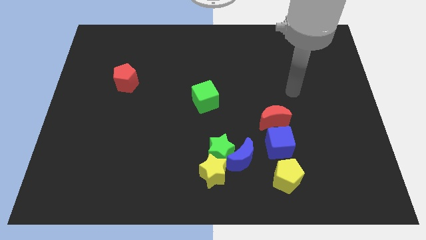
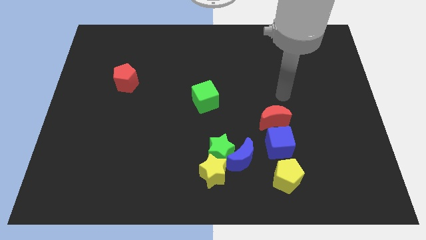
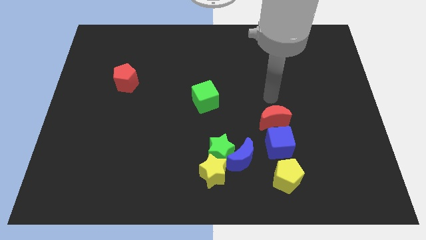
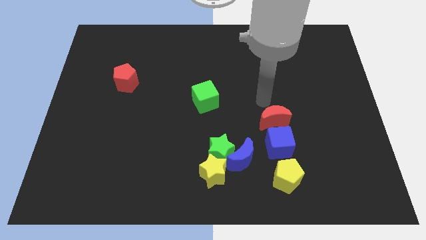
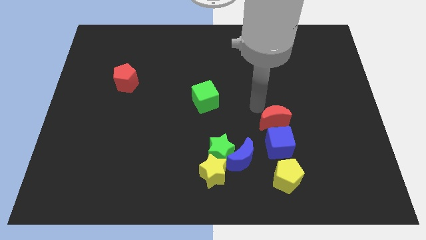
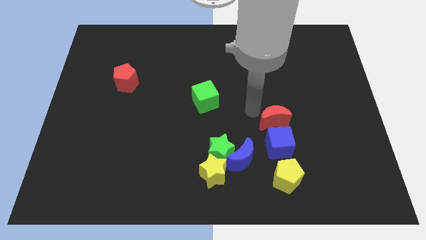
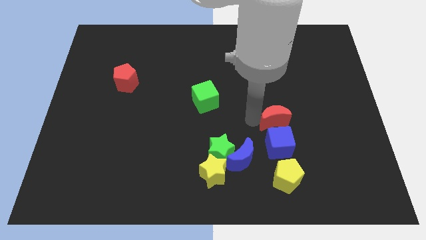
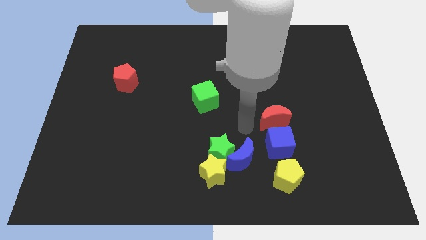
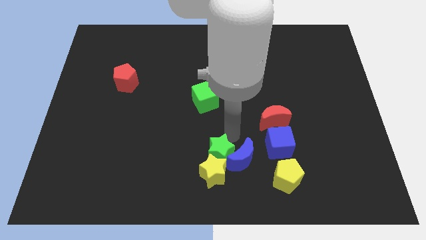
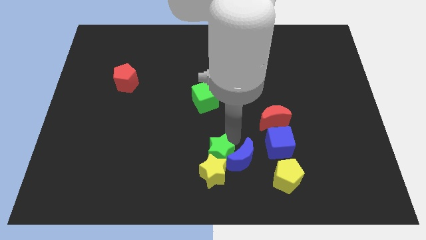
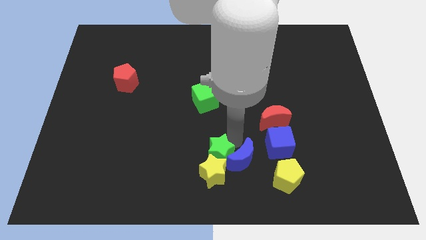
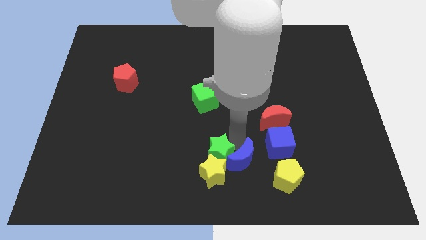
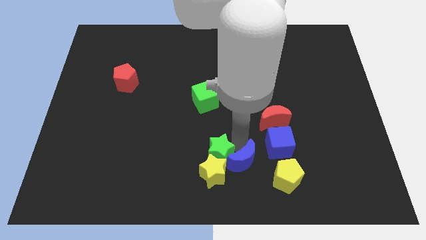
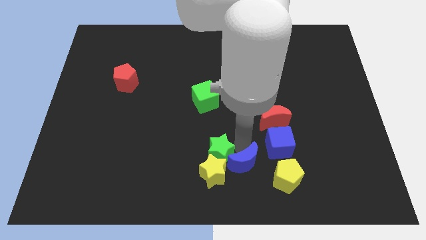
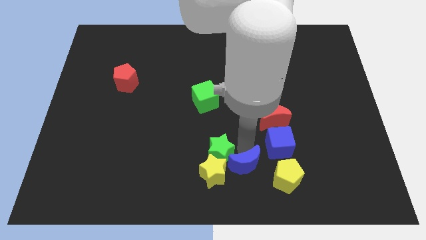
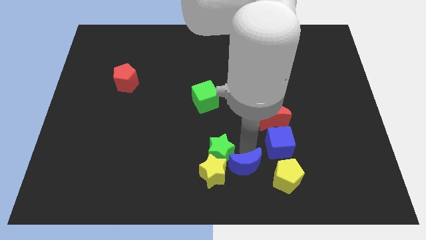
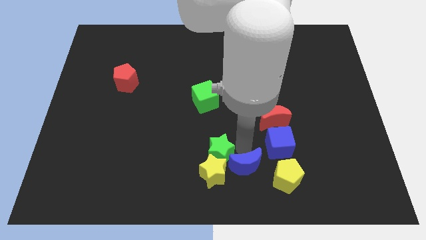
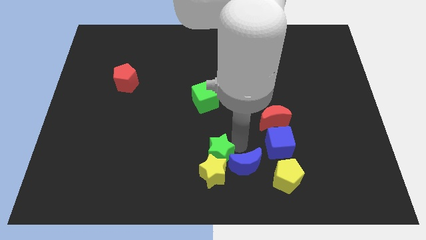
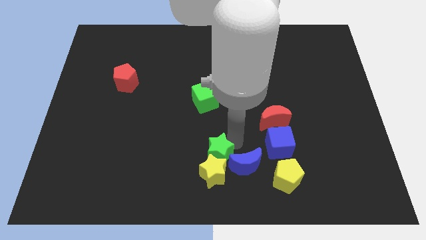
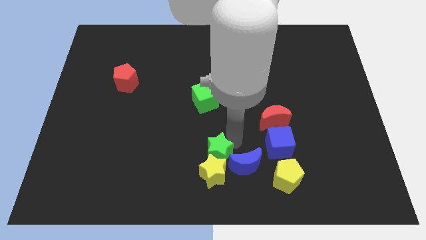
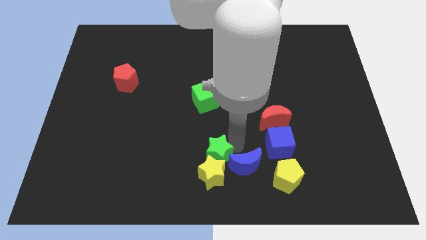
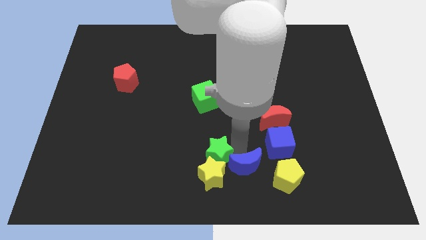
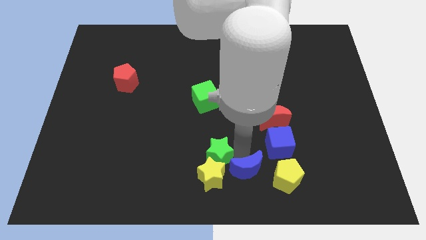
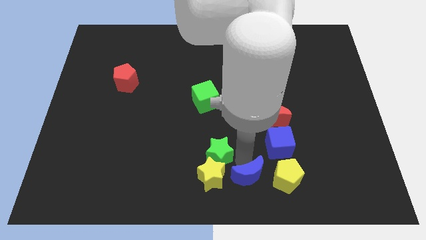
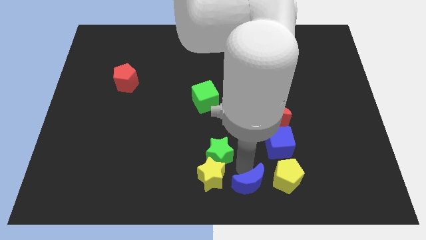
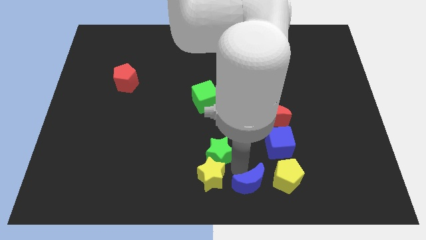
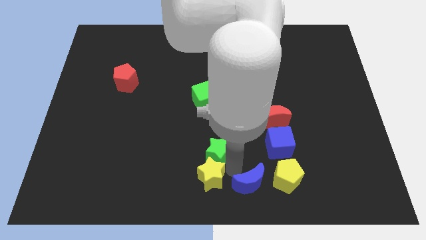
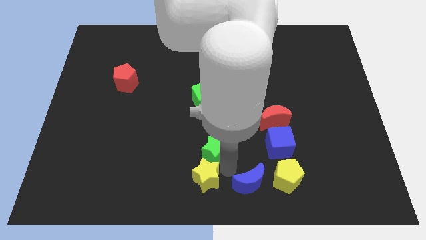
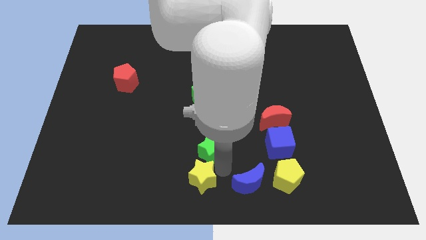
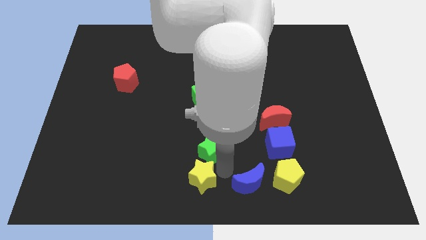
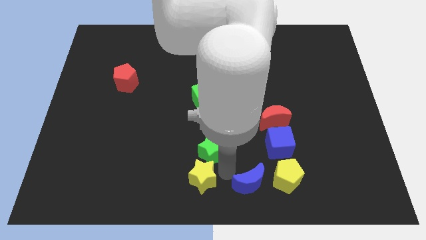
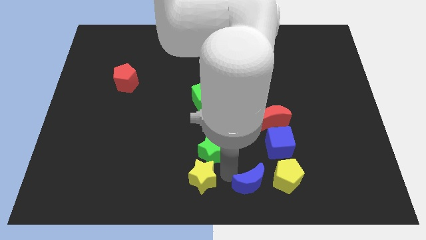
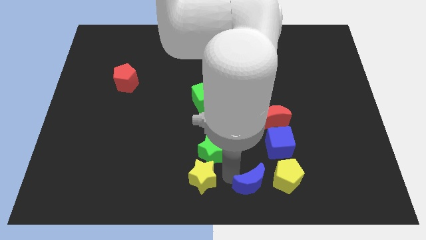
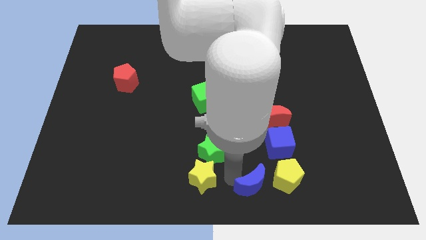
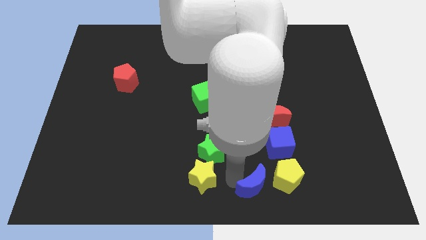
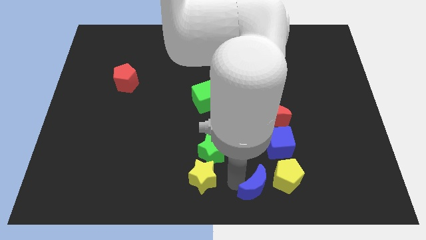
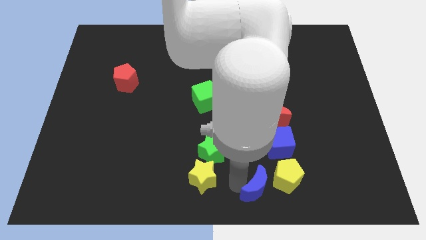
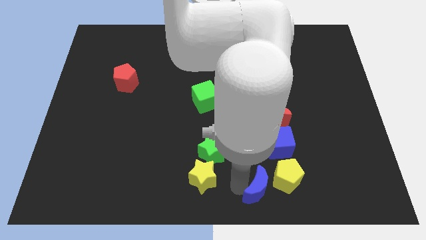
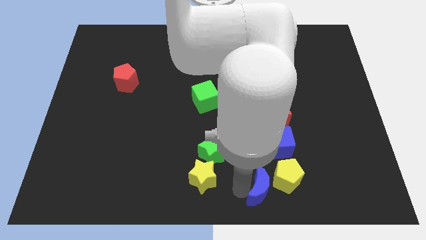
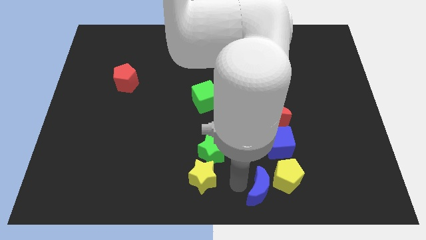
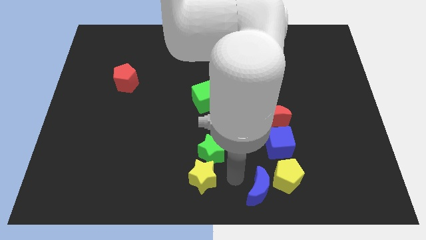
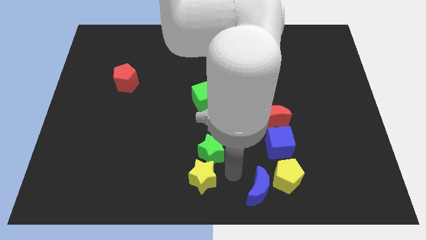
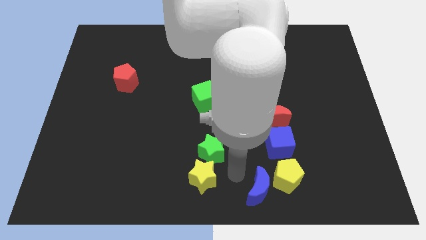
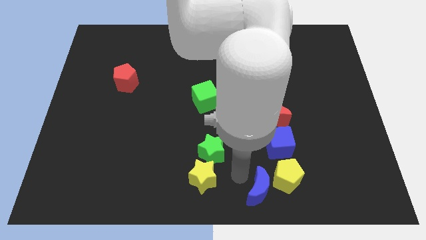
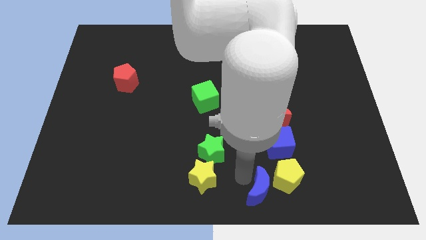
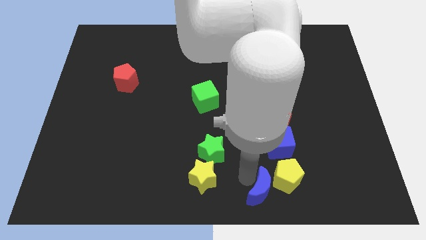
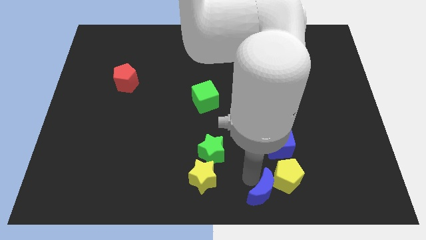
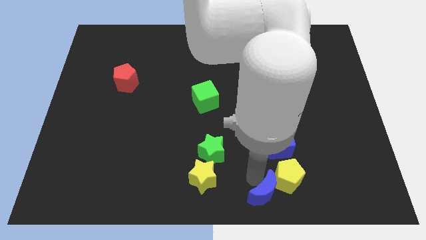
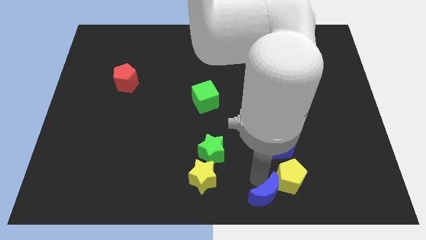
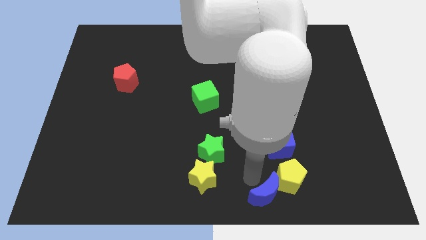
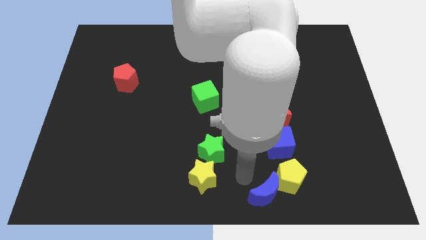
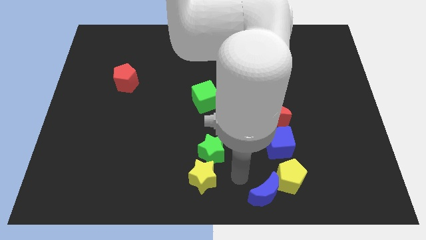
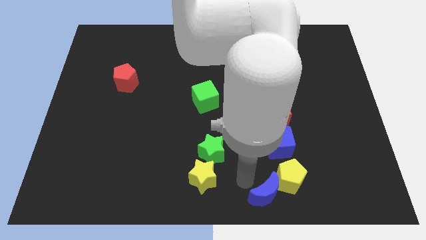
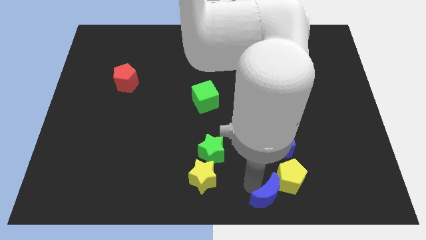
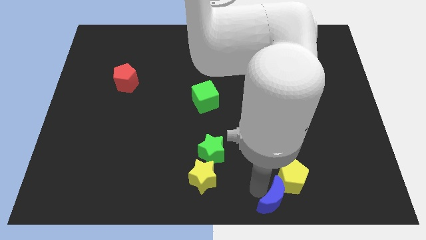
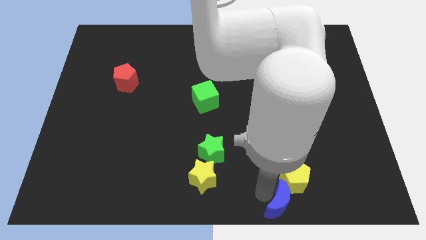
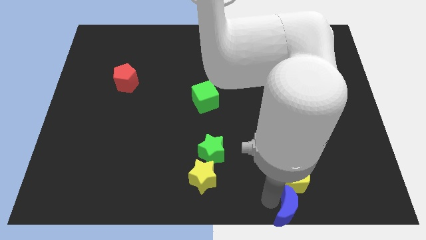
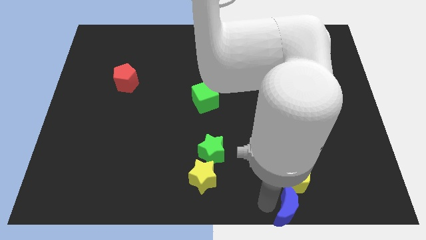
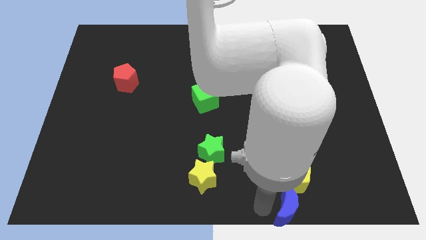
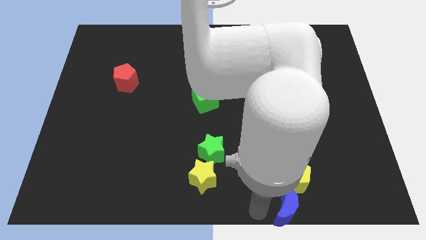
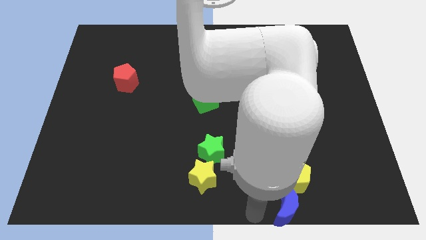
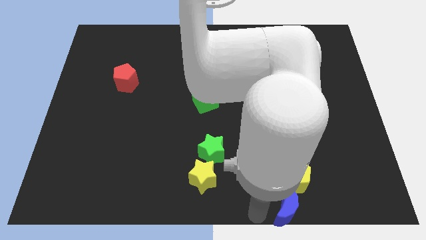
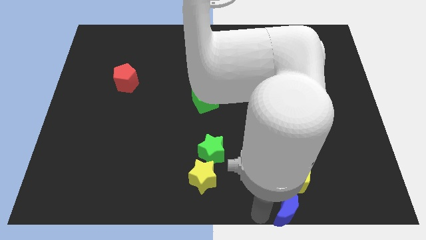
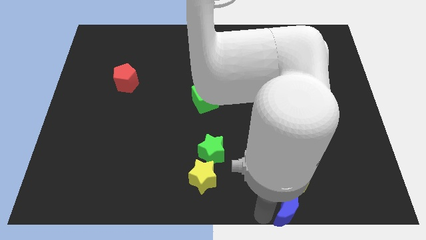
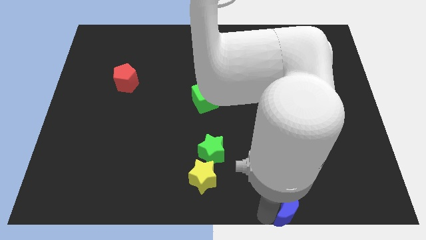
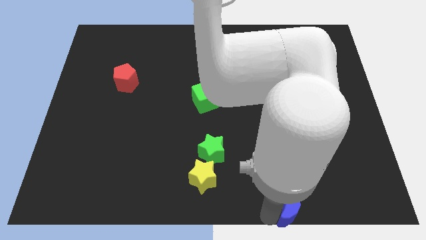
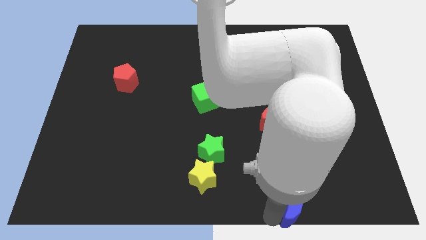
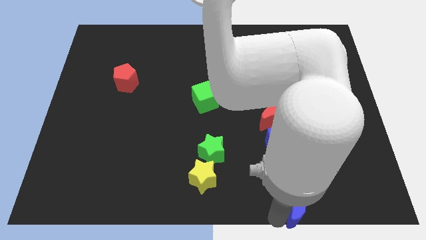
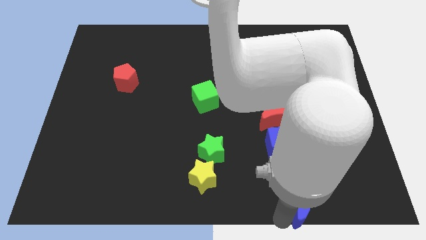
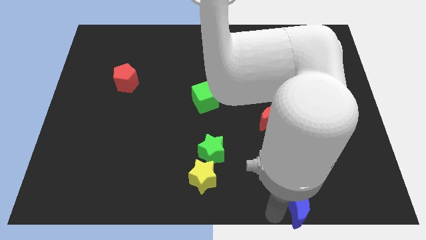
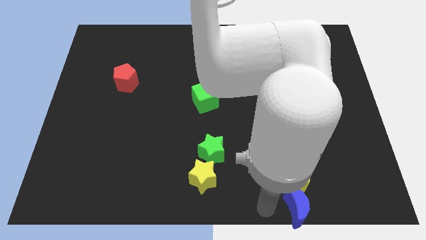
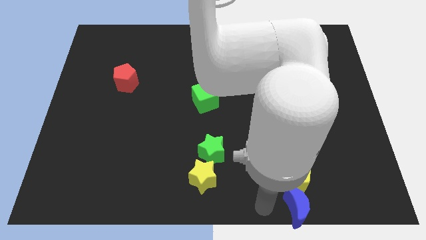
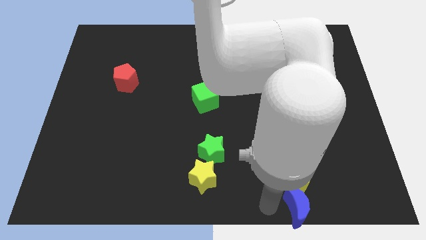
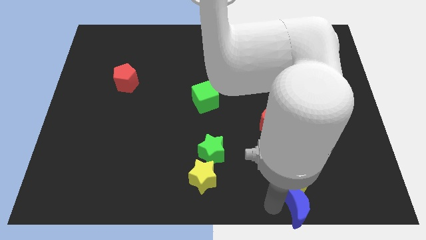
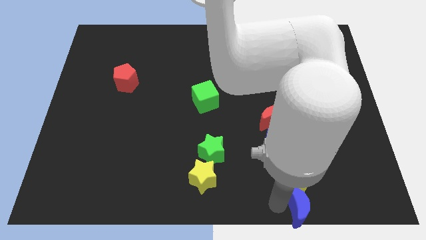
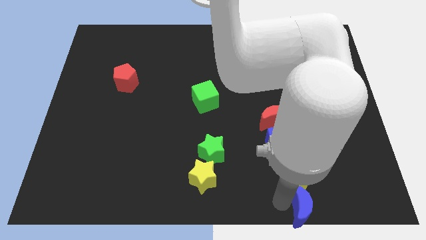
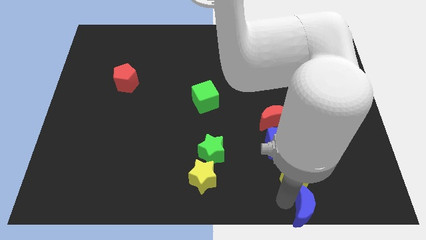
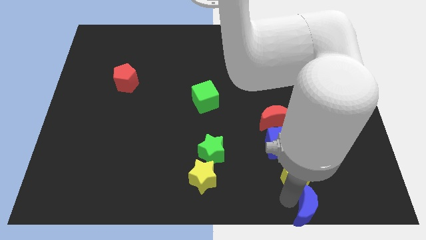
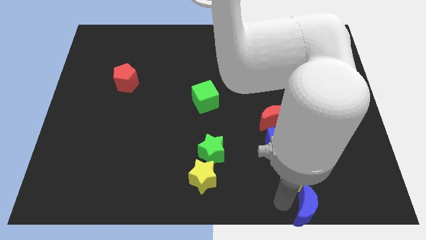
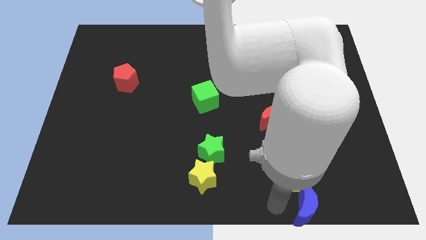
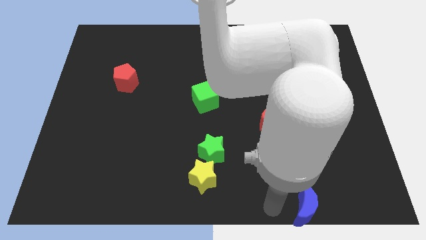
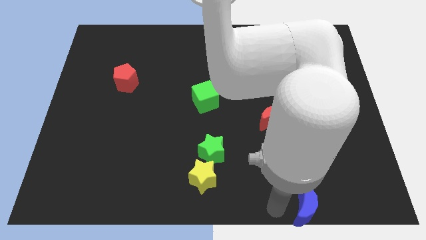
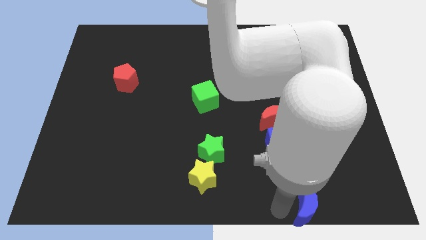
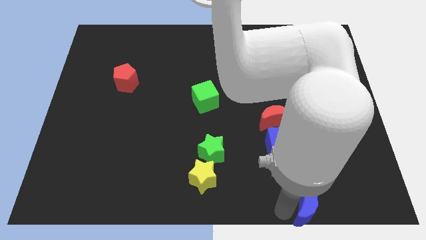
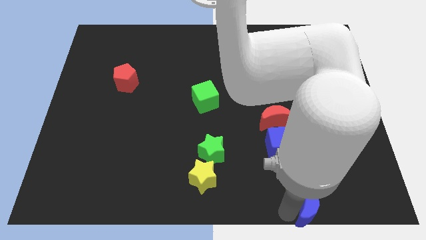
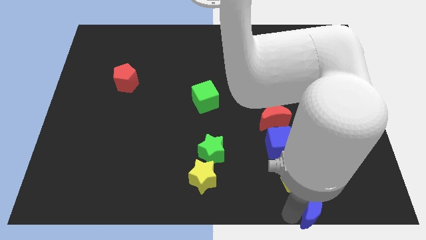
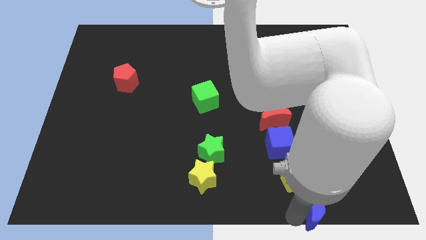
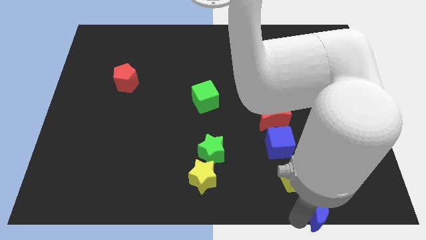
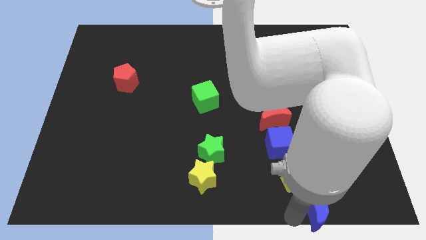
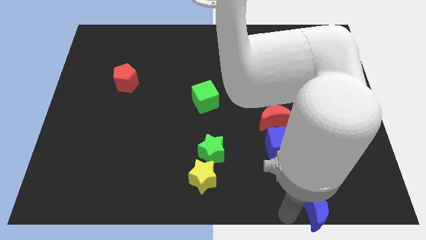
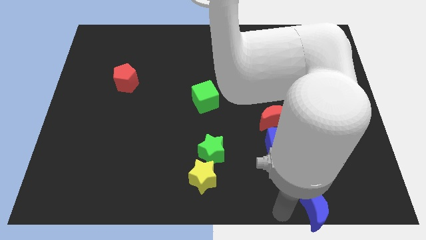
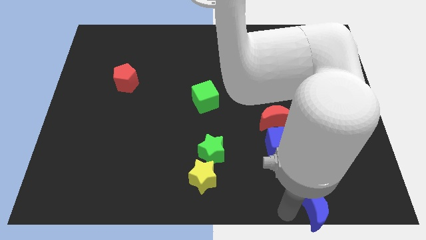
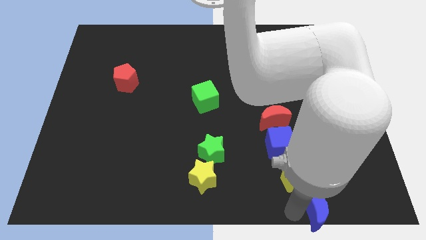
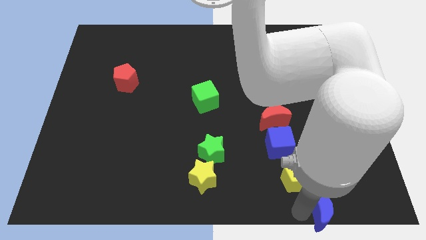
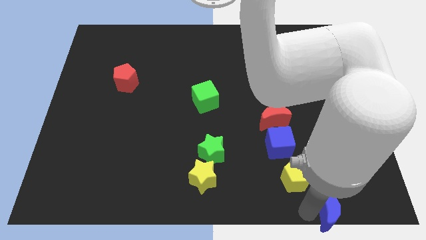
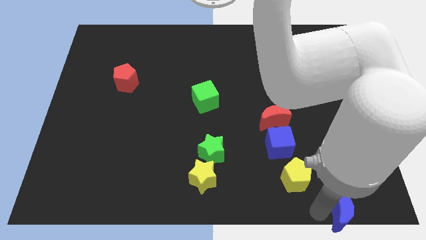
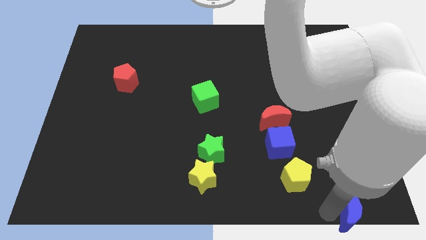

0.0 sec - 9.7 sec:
put the blue moon to the bottom right corner
